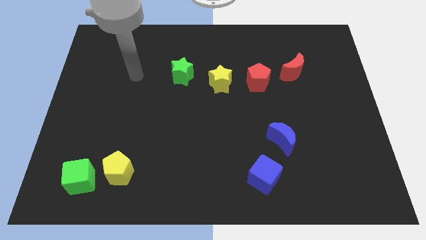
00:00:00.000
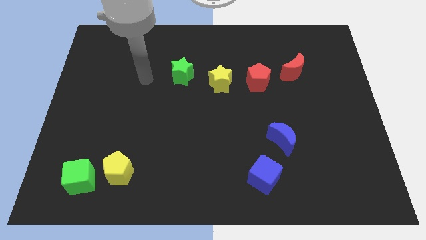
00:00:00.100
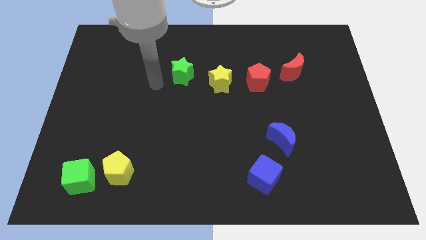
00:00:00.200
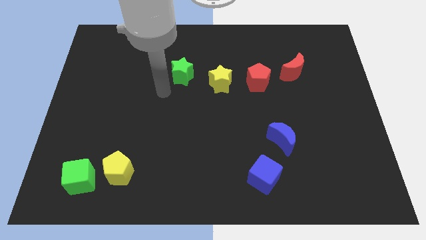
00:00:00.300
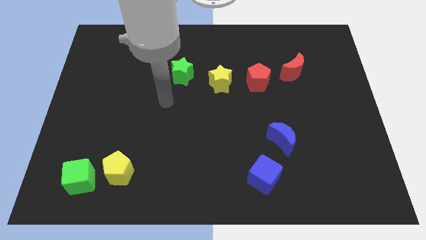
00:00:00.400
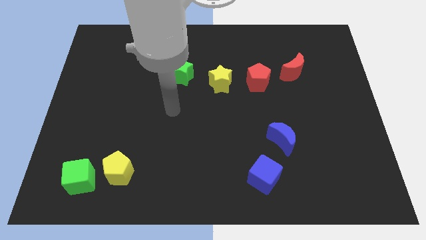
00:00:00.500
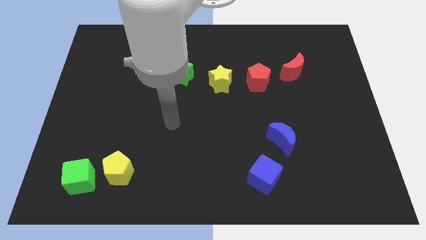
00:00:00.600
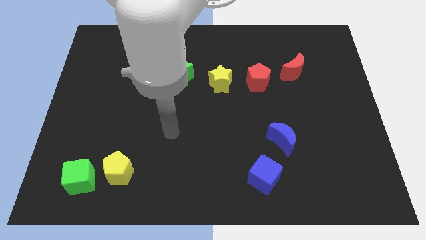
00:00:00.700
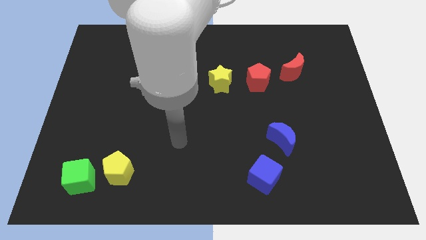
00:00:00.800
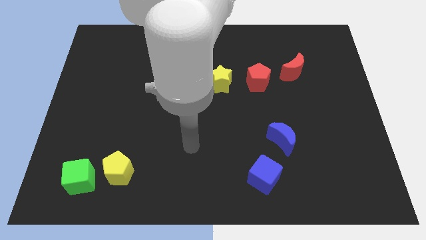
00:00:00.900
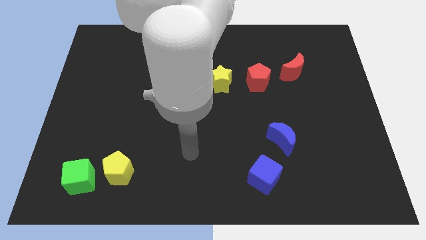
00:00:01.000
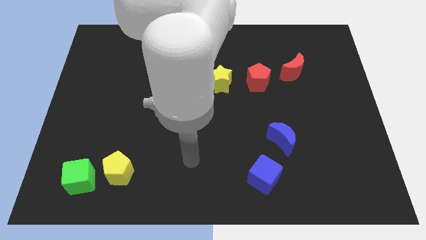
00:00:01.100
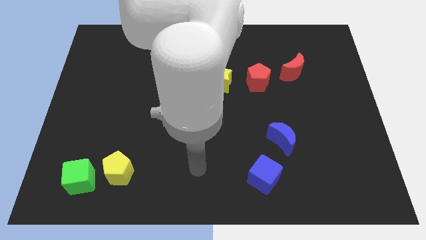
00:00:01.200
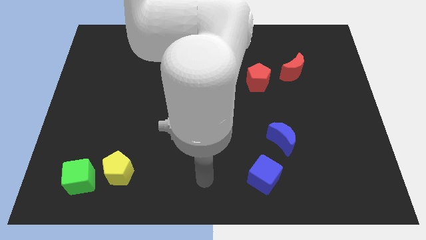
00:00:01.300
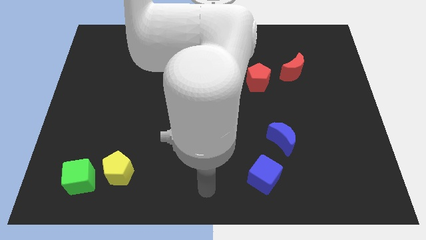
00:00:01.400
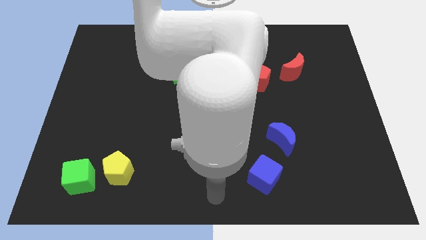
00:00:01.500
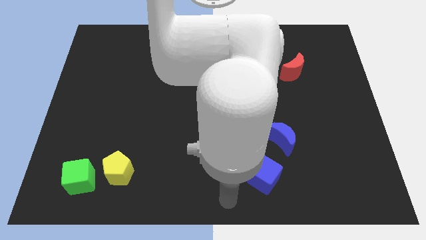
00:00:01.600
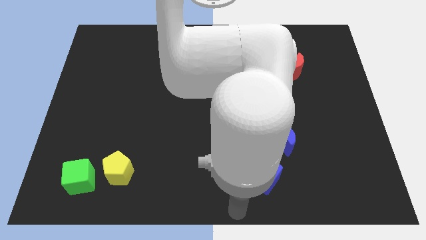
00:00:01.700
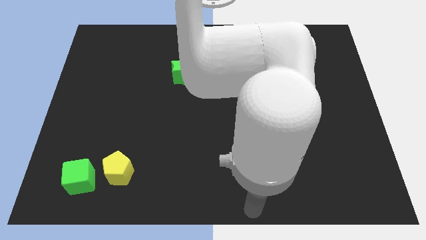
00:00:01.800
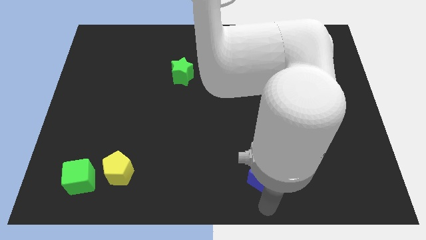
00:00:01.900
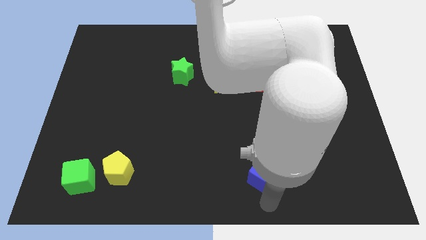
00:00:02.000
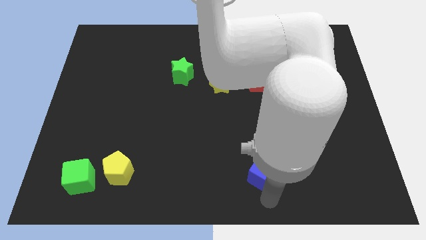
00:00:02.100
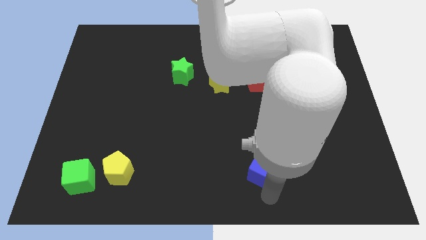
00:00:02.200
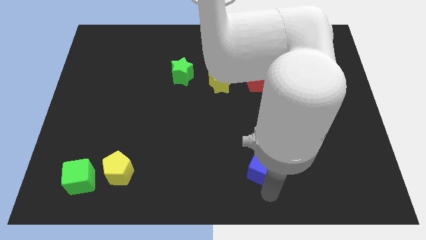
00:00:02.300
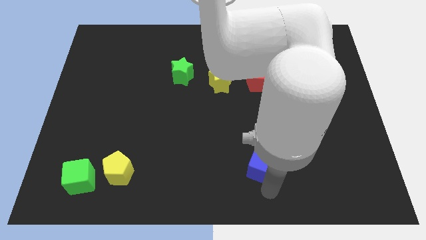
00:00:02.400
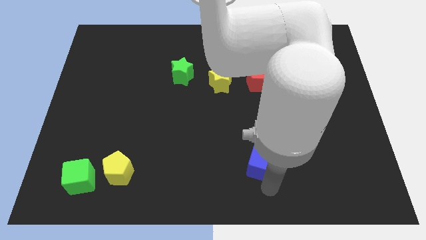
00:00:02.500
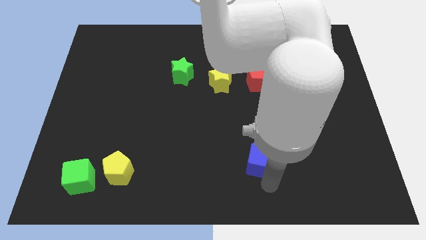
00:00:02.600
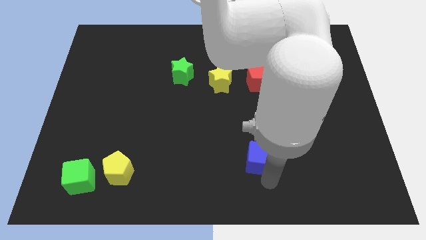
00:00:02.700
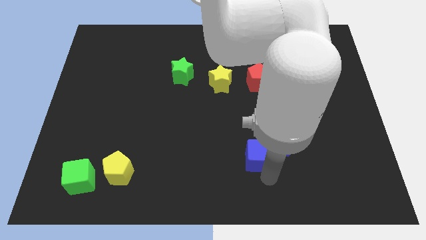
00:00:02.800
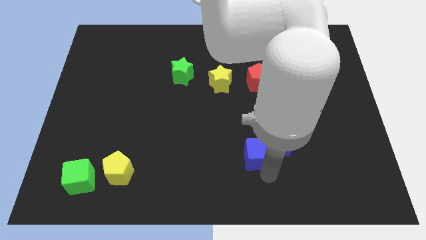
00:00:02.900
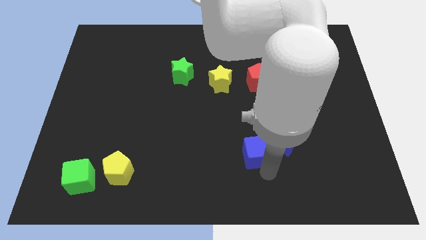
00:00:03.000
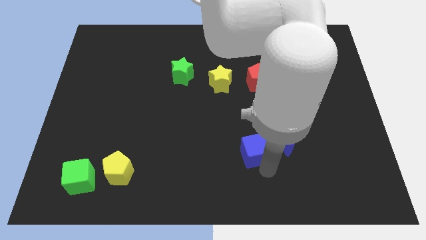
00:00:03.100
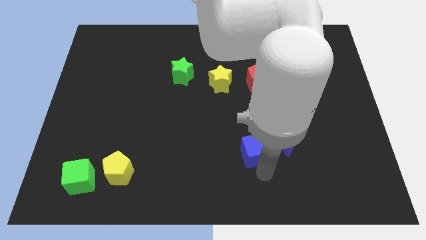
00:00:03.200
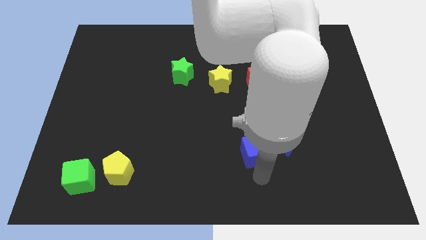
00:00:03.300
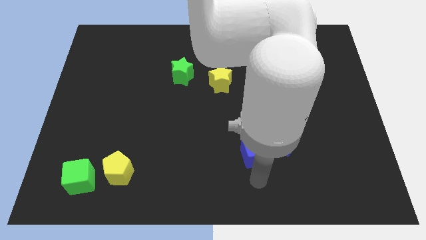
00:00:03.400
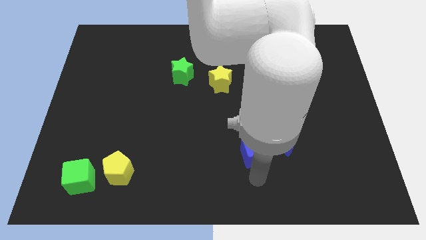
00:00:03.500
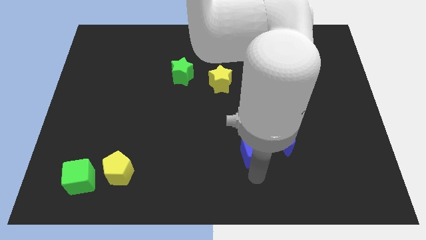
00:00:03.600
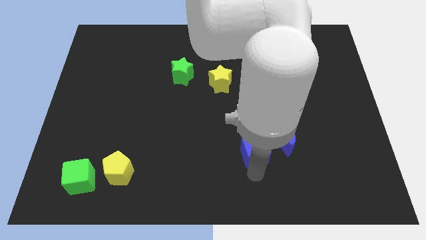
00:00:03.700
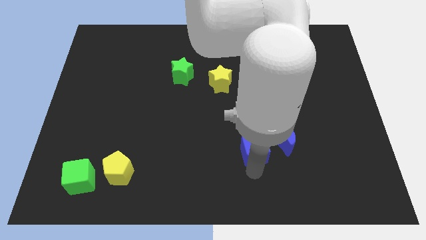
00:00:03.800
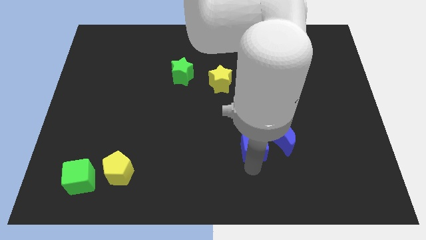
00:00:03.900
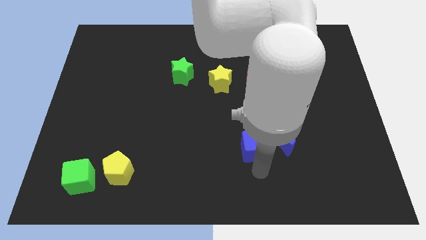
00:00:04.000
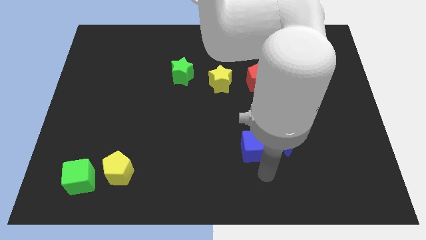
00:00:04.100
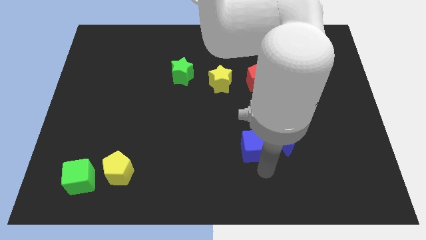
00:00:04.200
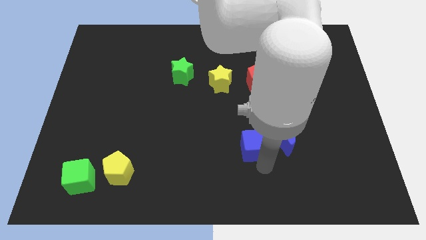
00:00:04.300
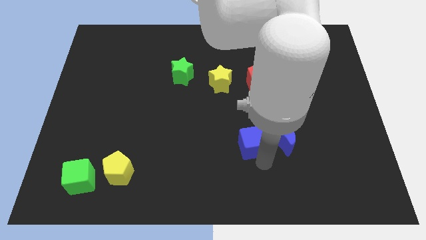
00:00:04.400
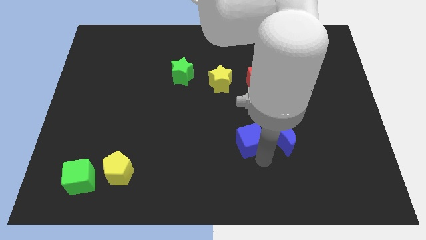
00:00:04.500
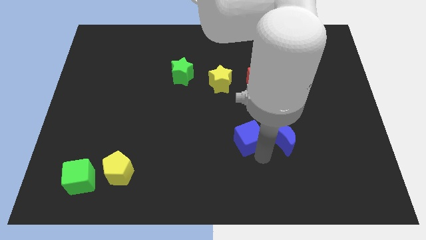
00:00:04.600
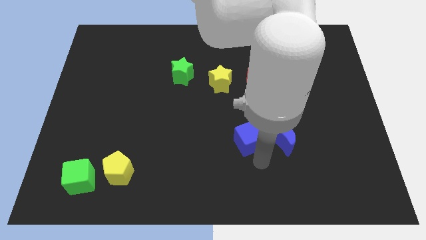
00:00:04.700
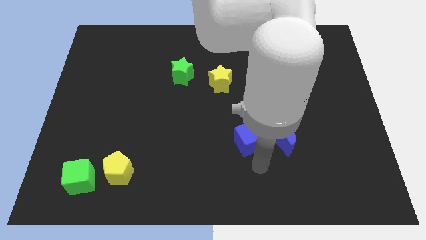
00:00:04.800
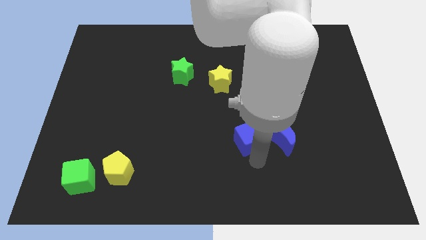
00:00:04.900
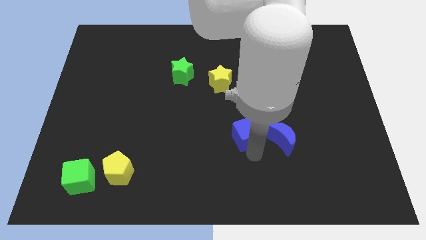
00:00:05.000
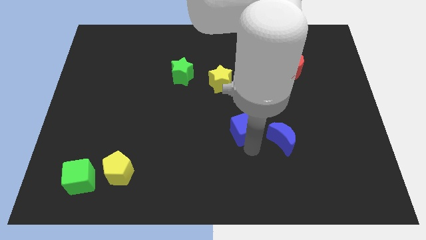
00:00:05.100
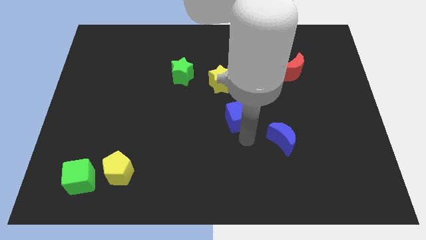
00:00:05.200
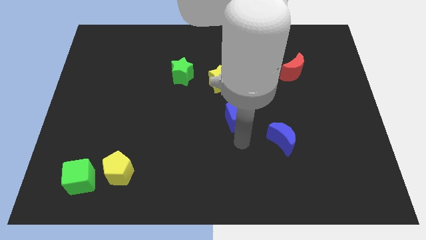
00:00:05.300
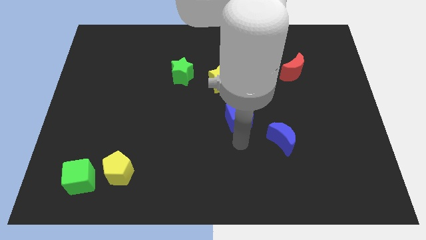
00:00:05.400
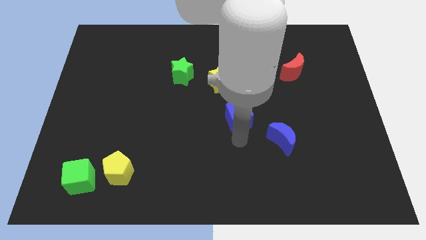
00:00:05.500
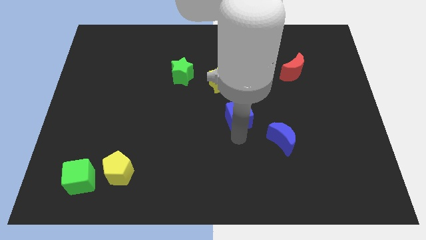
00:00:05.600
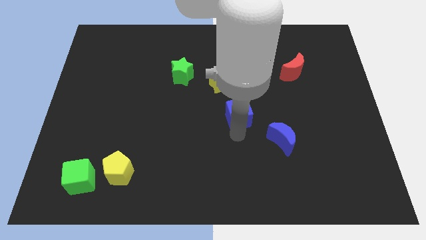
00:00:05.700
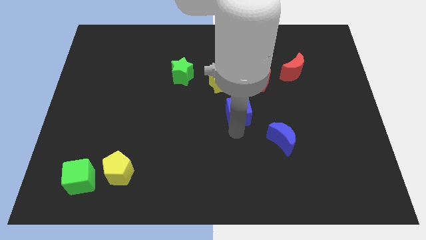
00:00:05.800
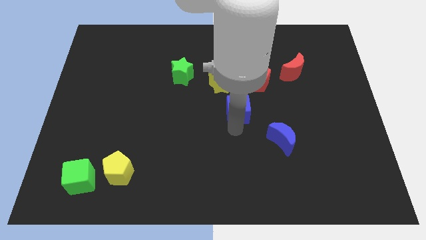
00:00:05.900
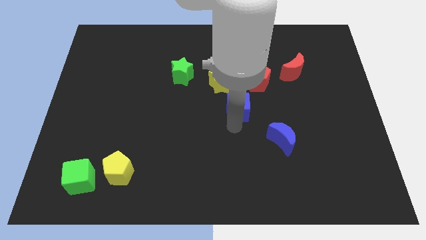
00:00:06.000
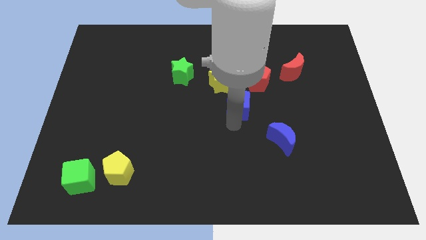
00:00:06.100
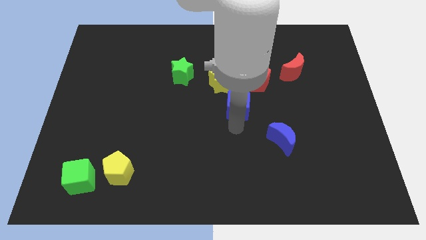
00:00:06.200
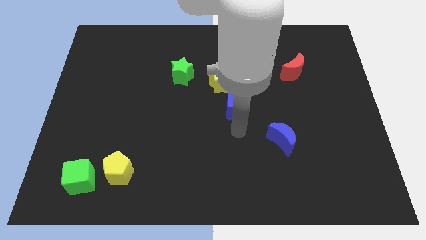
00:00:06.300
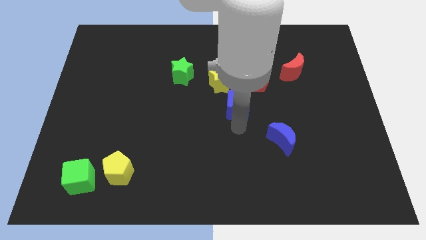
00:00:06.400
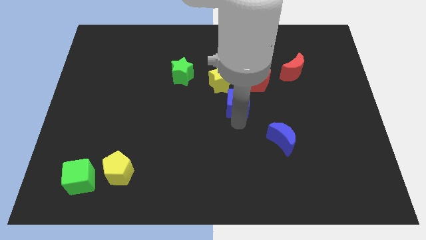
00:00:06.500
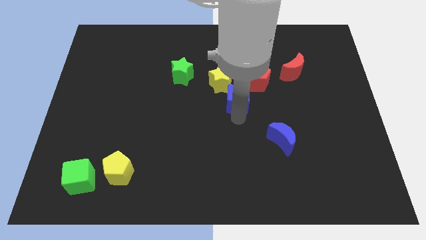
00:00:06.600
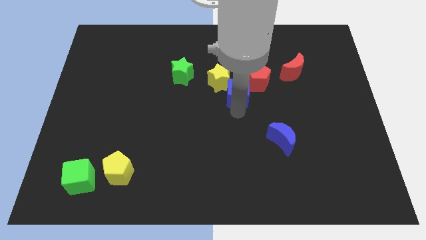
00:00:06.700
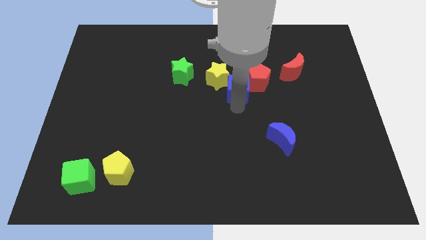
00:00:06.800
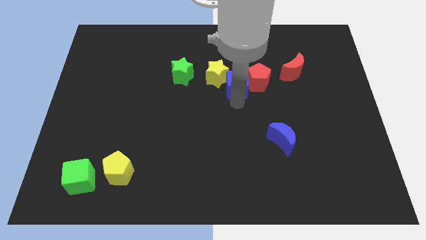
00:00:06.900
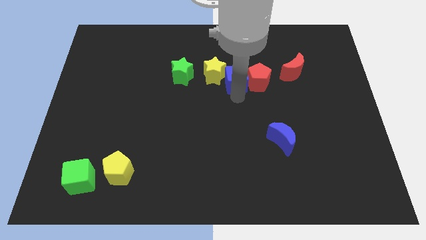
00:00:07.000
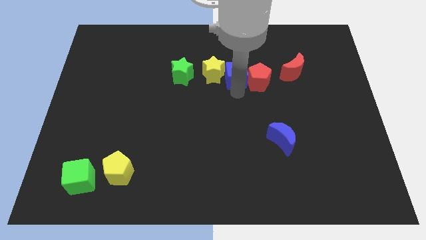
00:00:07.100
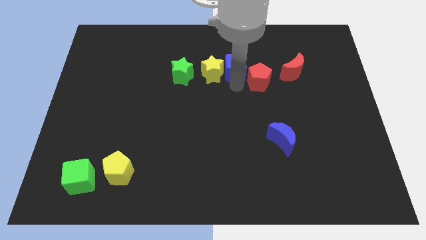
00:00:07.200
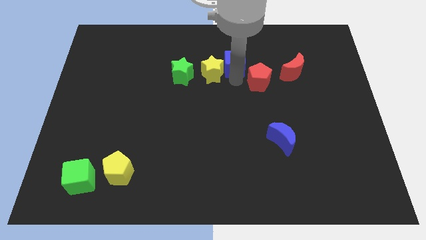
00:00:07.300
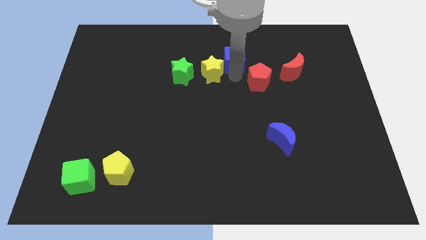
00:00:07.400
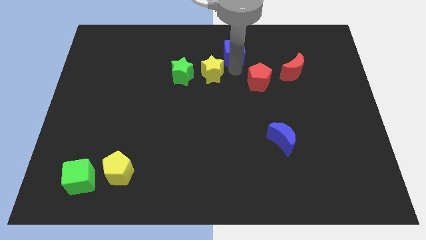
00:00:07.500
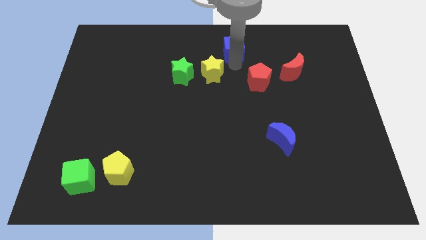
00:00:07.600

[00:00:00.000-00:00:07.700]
move the blue cube to the towards your base
